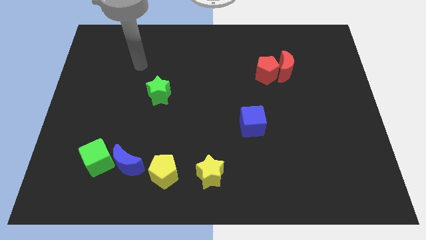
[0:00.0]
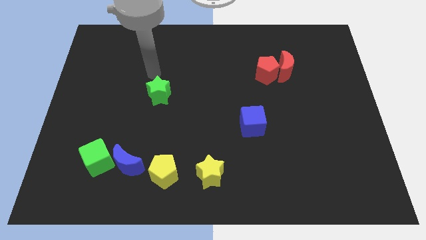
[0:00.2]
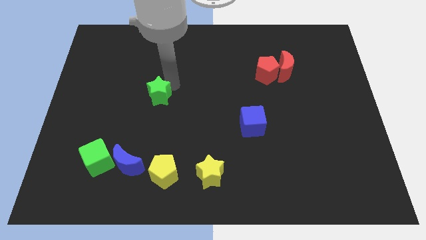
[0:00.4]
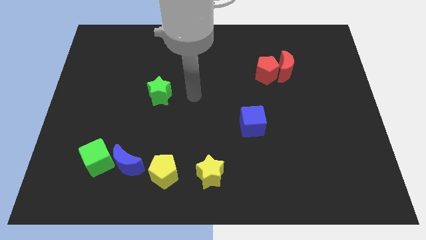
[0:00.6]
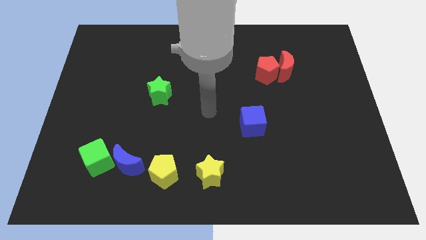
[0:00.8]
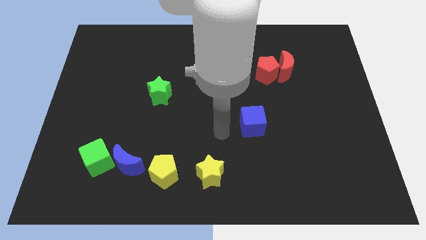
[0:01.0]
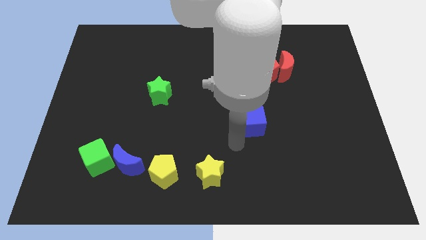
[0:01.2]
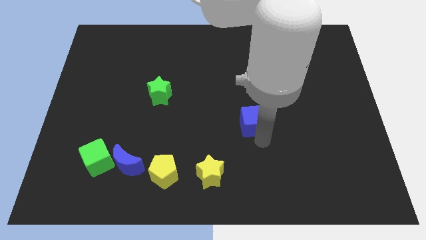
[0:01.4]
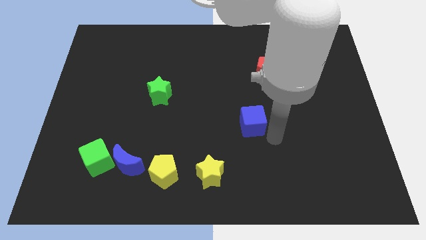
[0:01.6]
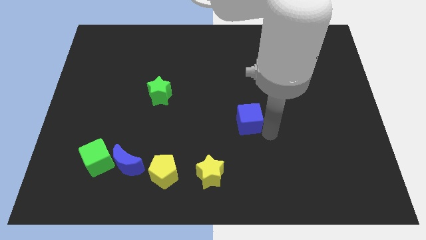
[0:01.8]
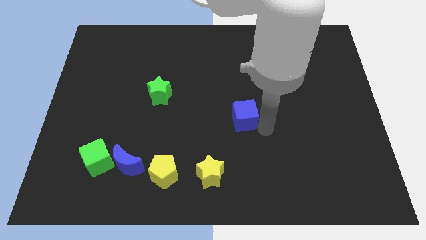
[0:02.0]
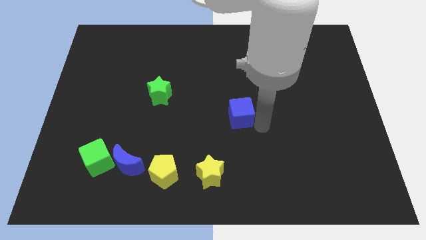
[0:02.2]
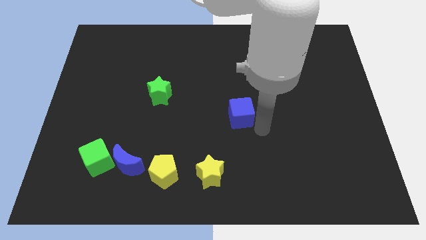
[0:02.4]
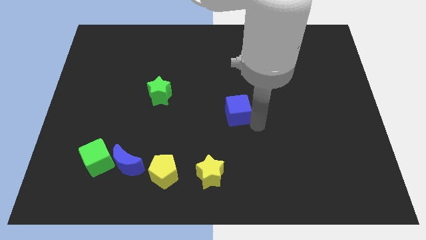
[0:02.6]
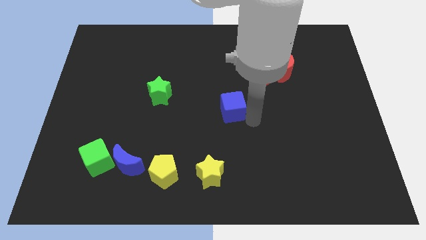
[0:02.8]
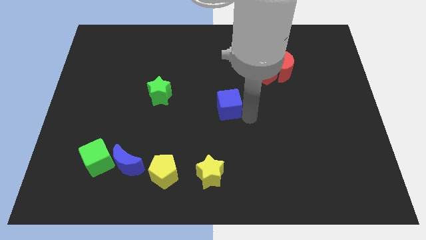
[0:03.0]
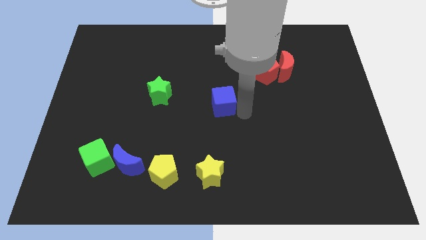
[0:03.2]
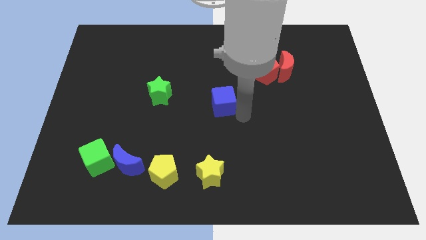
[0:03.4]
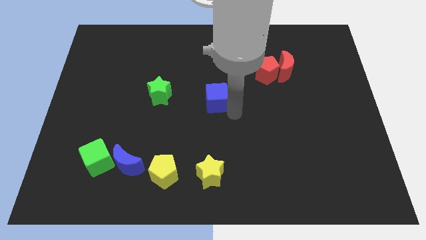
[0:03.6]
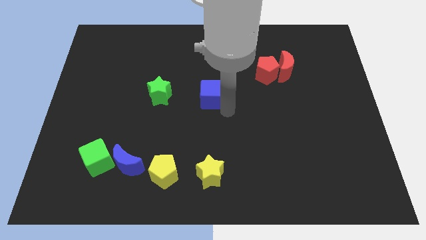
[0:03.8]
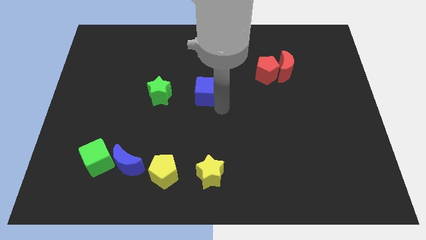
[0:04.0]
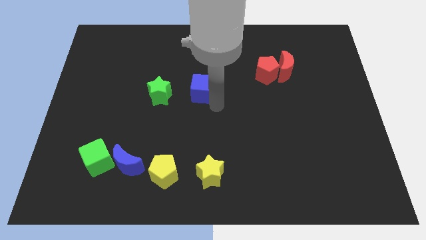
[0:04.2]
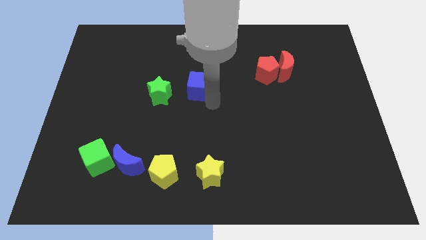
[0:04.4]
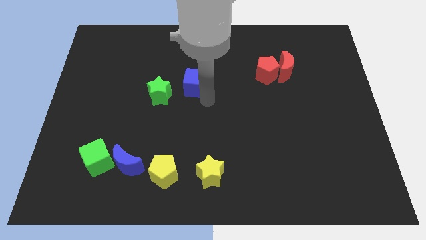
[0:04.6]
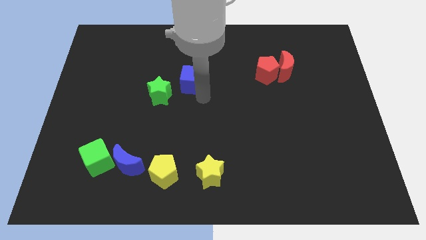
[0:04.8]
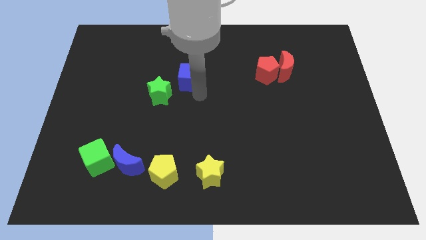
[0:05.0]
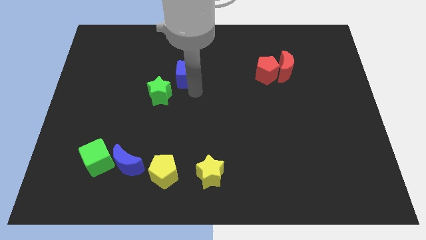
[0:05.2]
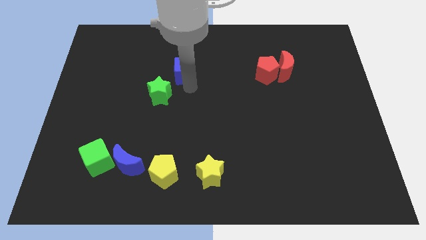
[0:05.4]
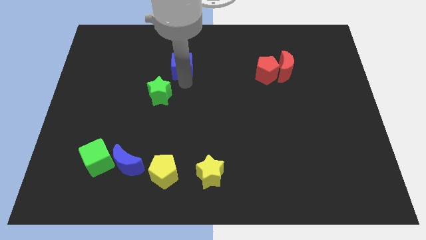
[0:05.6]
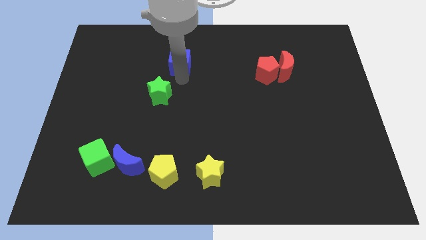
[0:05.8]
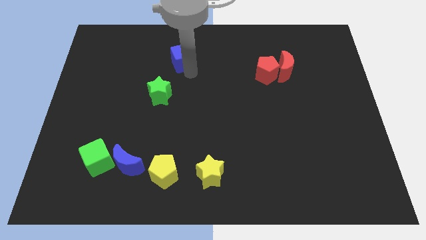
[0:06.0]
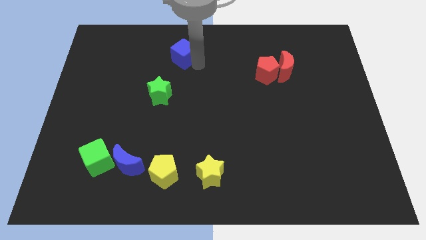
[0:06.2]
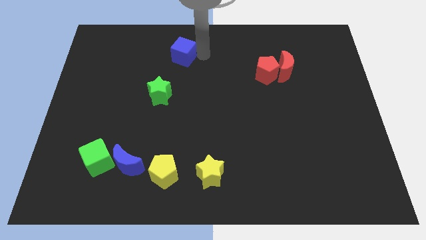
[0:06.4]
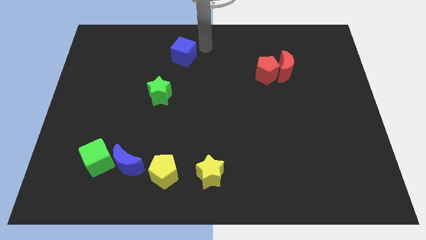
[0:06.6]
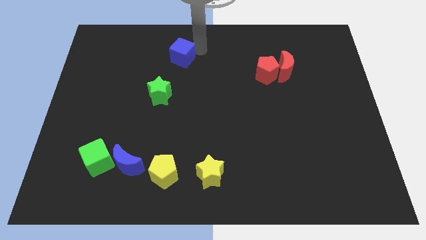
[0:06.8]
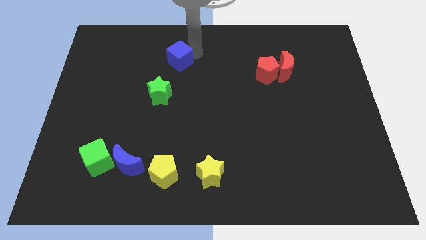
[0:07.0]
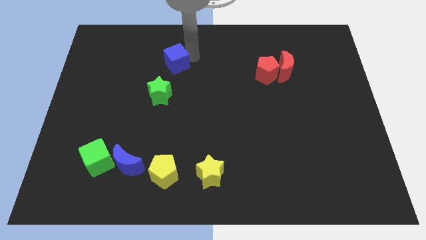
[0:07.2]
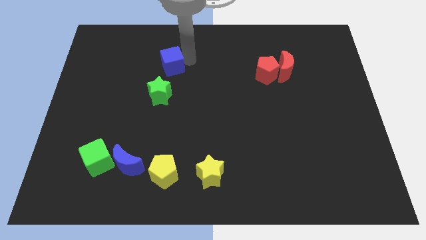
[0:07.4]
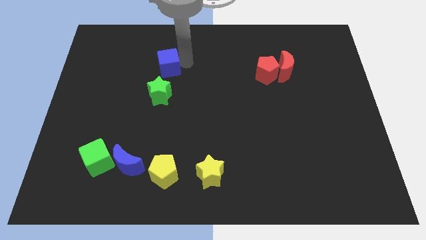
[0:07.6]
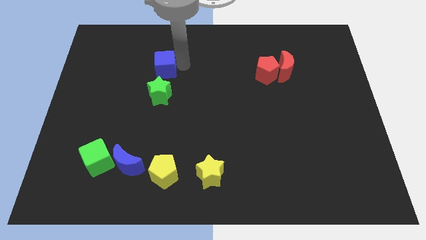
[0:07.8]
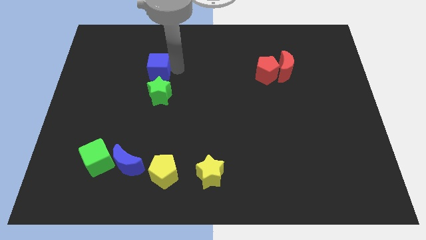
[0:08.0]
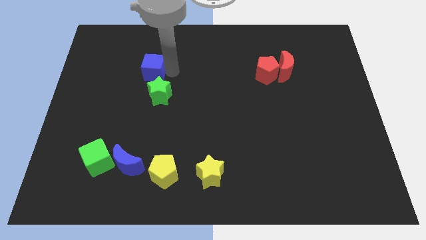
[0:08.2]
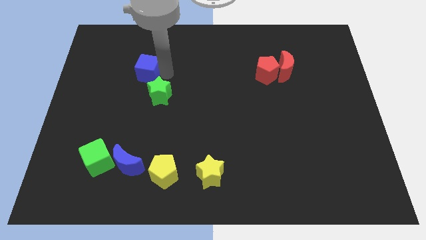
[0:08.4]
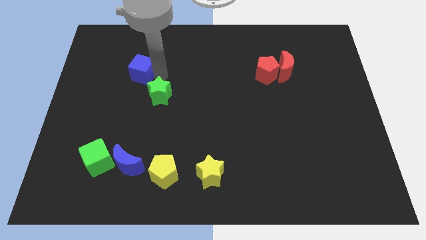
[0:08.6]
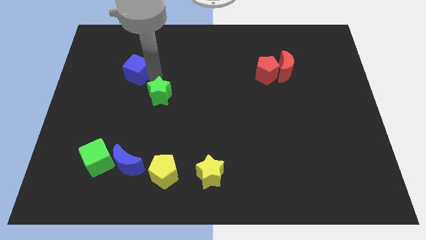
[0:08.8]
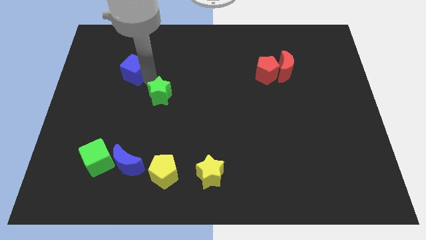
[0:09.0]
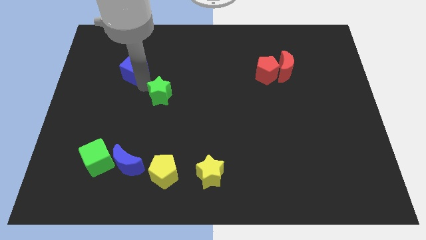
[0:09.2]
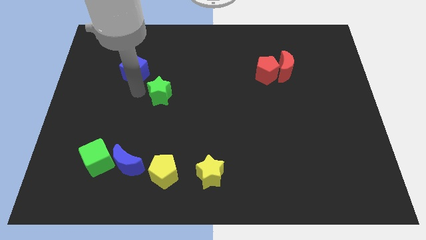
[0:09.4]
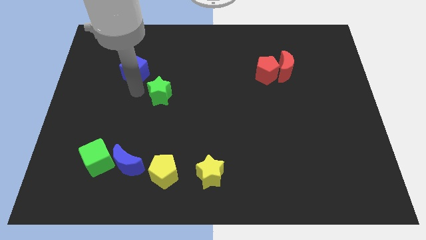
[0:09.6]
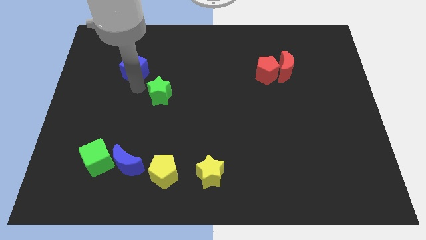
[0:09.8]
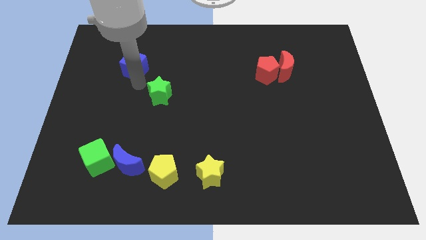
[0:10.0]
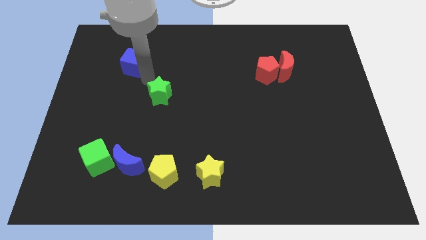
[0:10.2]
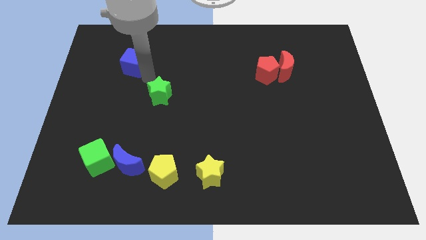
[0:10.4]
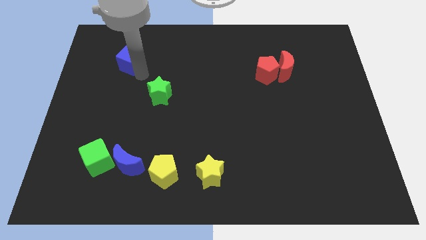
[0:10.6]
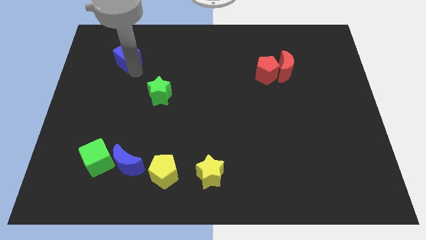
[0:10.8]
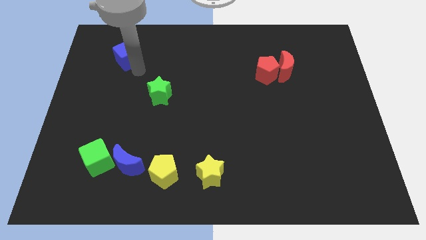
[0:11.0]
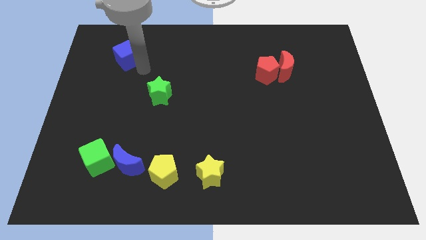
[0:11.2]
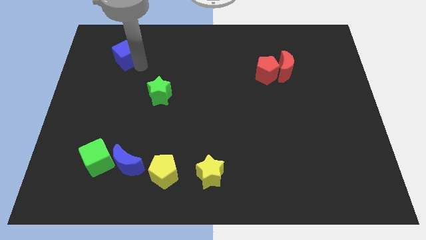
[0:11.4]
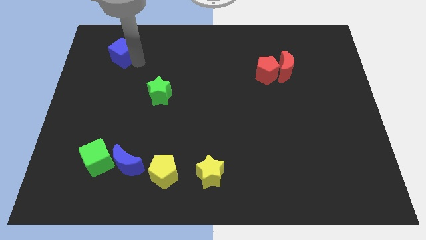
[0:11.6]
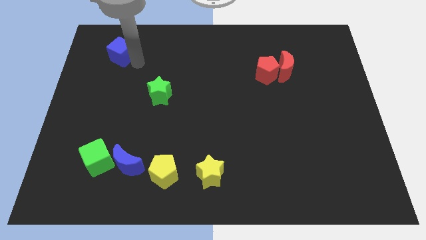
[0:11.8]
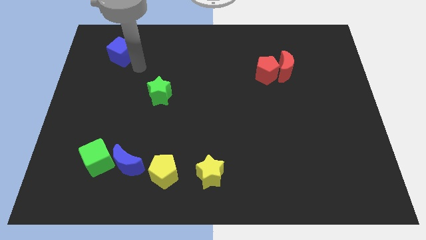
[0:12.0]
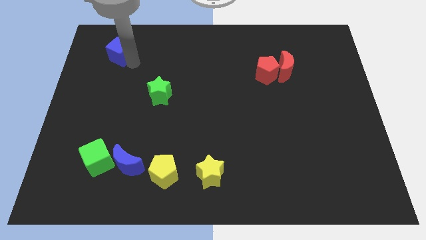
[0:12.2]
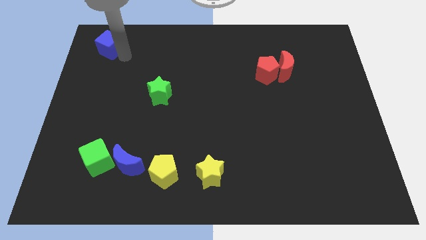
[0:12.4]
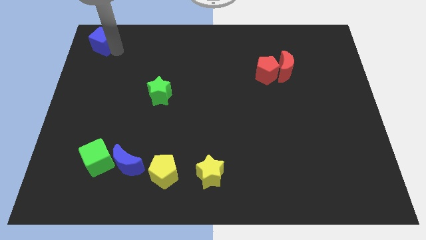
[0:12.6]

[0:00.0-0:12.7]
push the blue cube to the top left of the board

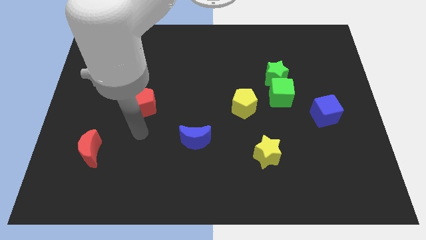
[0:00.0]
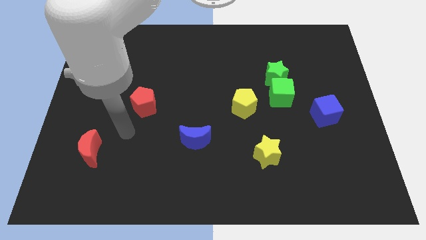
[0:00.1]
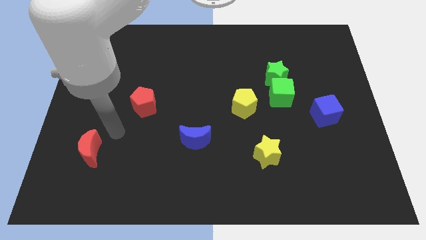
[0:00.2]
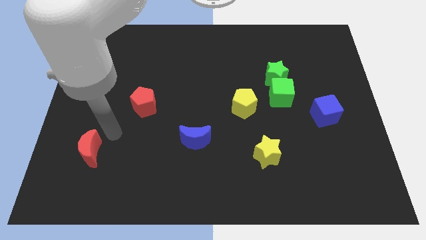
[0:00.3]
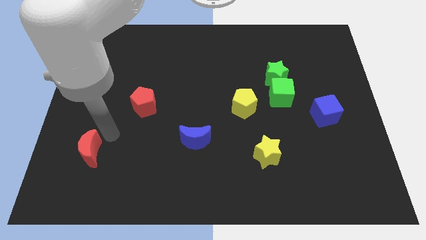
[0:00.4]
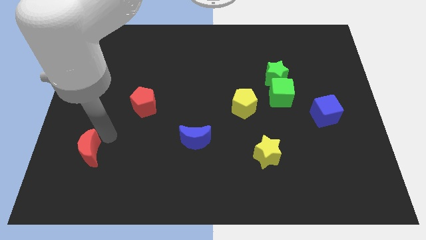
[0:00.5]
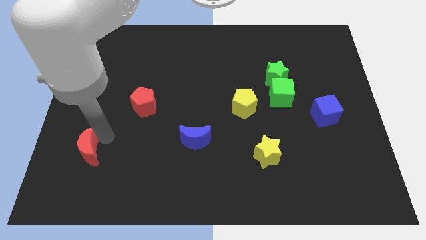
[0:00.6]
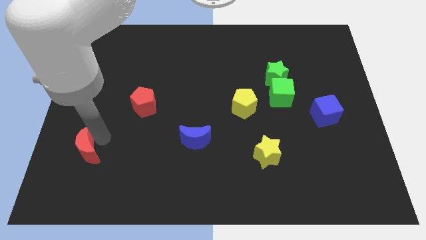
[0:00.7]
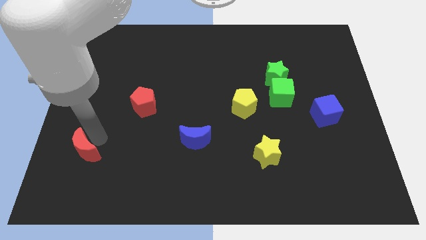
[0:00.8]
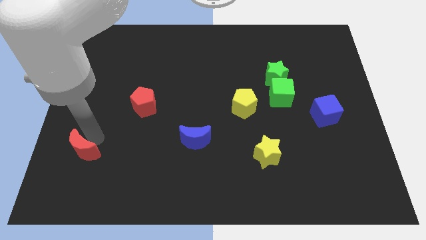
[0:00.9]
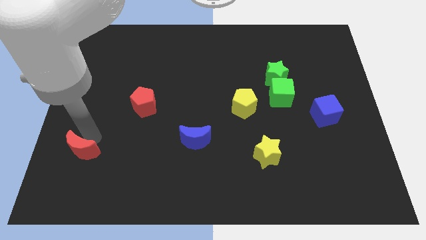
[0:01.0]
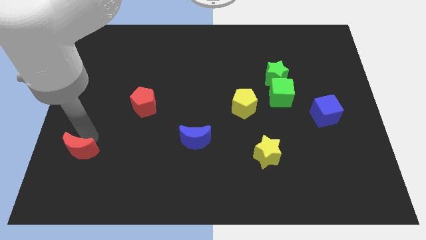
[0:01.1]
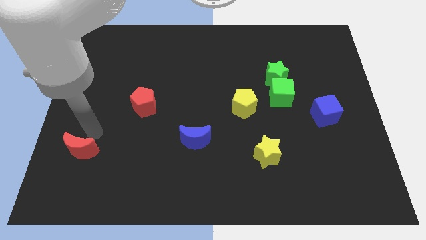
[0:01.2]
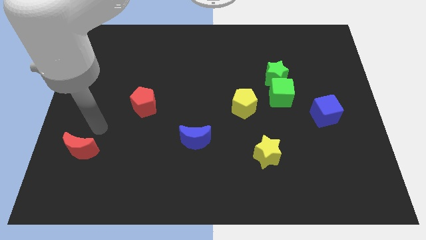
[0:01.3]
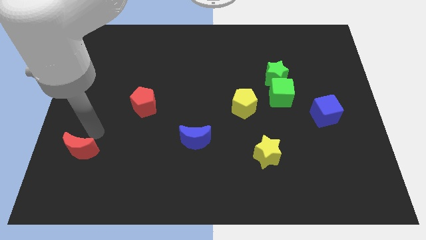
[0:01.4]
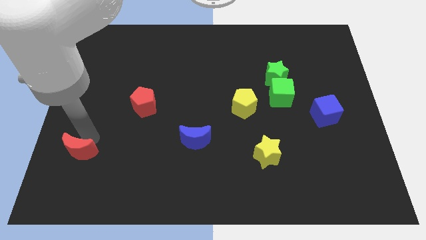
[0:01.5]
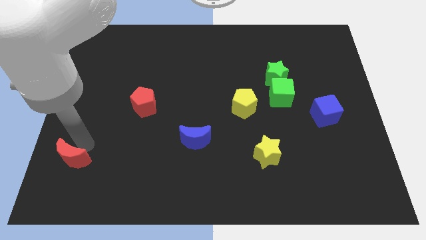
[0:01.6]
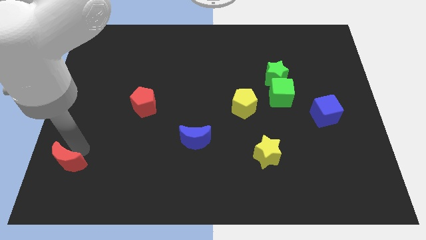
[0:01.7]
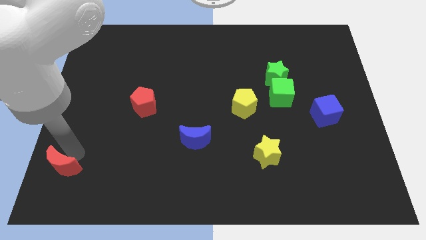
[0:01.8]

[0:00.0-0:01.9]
move the red moon to the bottom left
